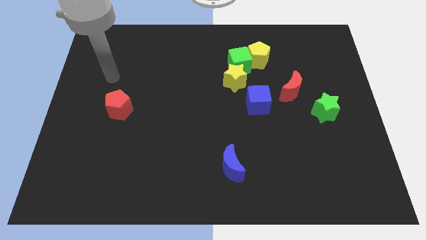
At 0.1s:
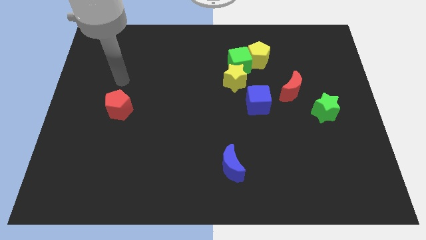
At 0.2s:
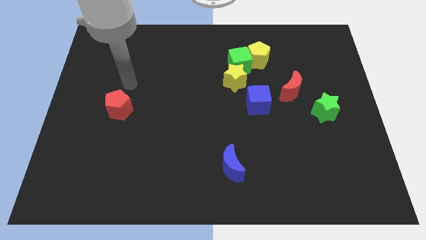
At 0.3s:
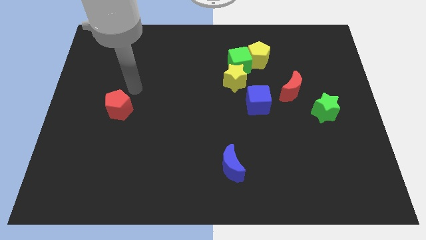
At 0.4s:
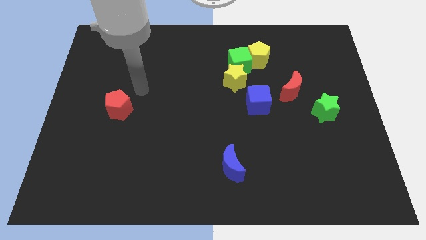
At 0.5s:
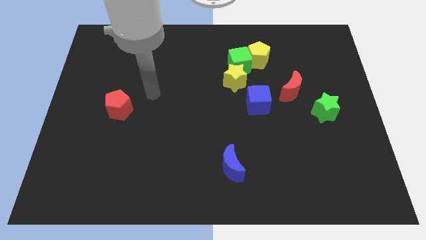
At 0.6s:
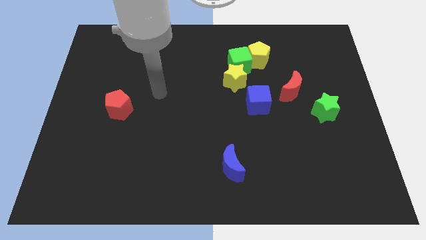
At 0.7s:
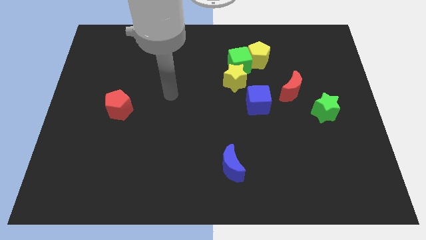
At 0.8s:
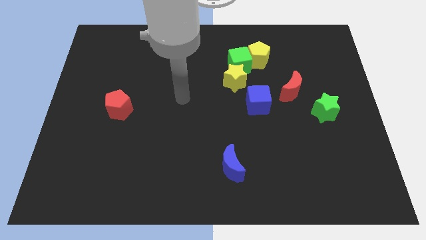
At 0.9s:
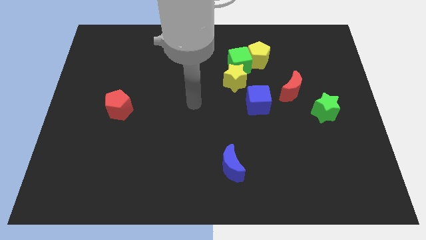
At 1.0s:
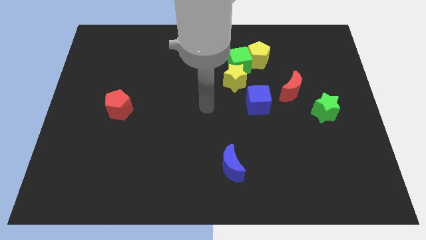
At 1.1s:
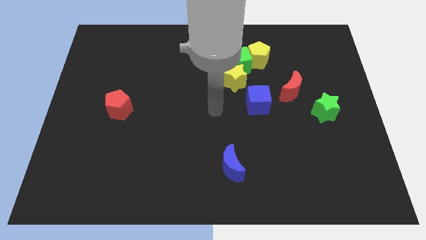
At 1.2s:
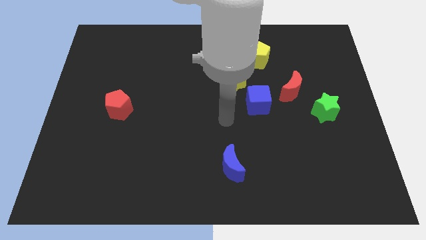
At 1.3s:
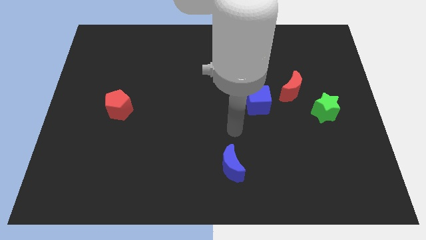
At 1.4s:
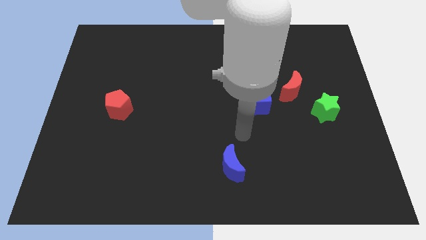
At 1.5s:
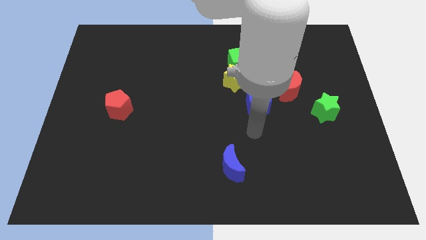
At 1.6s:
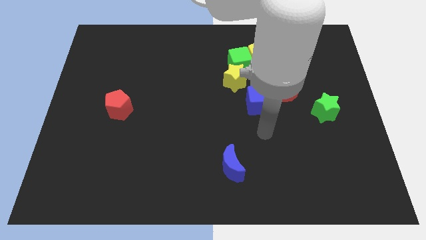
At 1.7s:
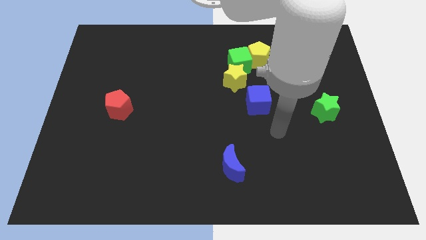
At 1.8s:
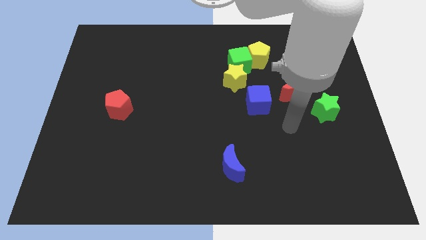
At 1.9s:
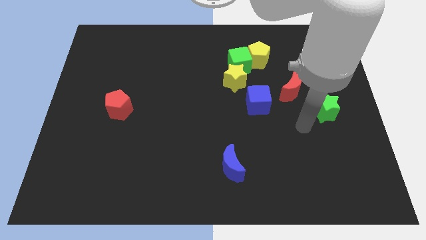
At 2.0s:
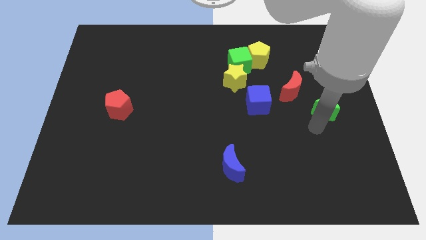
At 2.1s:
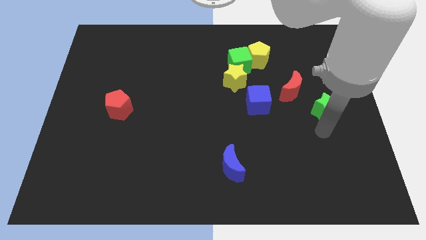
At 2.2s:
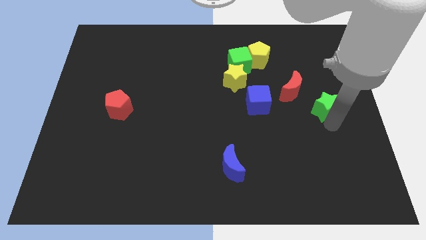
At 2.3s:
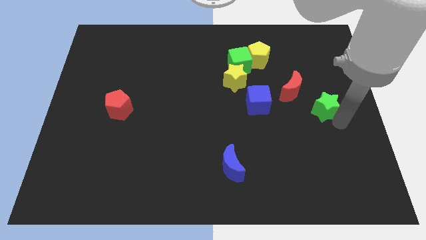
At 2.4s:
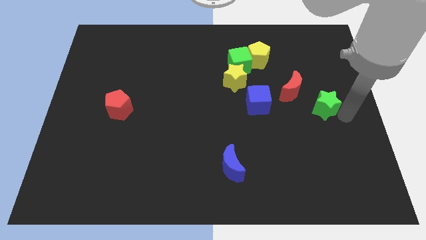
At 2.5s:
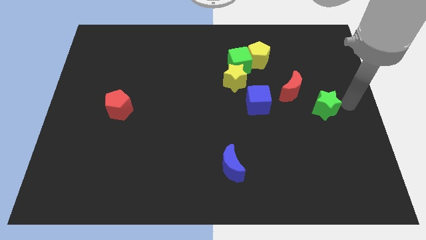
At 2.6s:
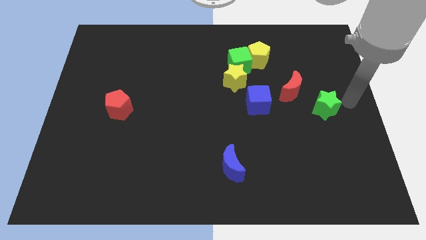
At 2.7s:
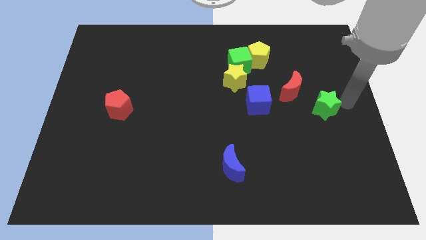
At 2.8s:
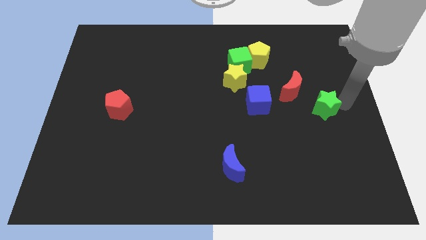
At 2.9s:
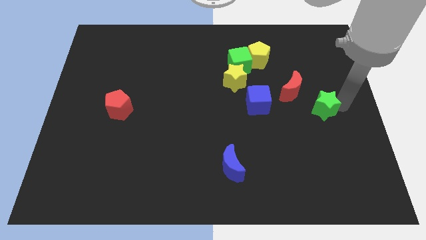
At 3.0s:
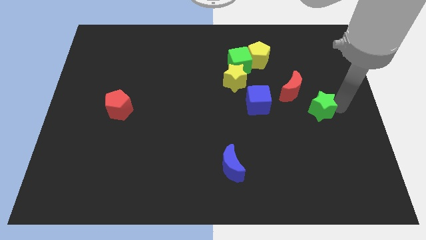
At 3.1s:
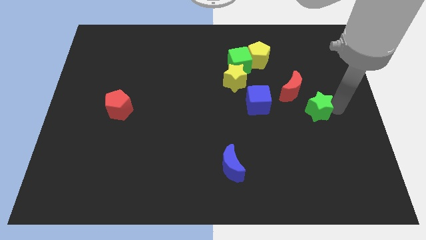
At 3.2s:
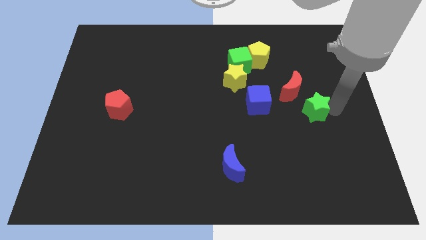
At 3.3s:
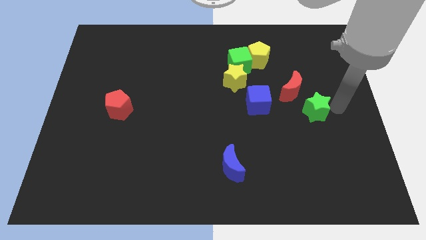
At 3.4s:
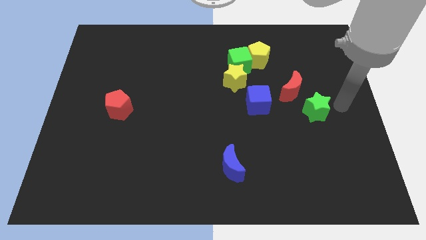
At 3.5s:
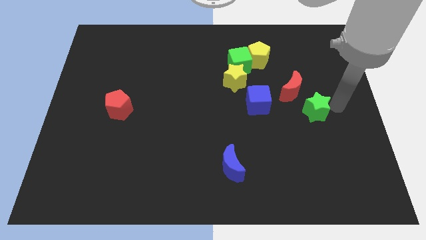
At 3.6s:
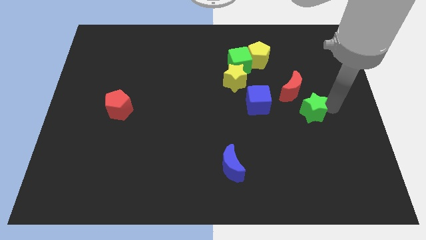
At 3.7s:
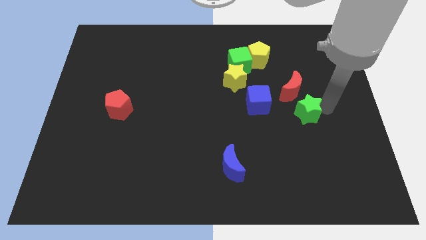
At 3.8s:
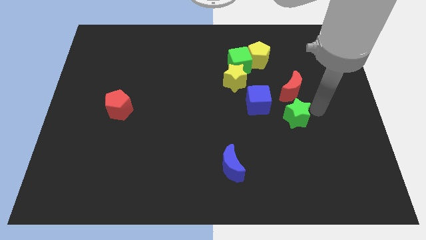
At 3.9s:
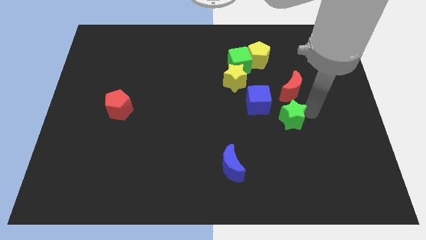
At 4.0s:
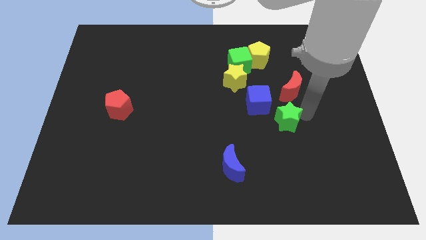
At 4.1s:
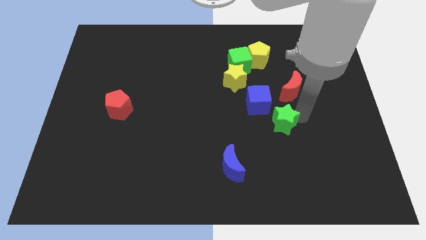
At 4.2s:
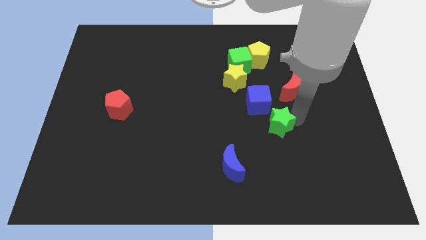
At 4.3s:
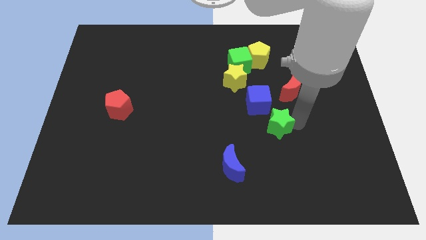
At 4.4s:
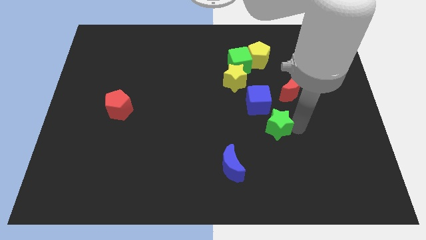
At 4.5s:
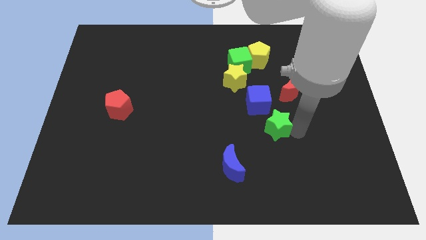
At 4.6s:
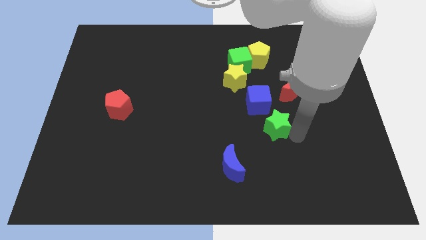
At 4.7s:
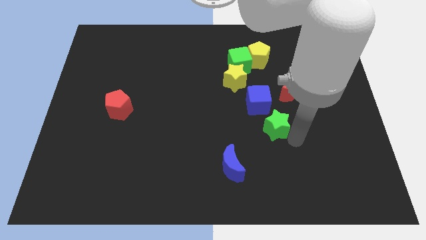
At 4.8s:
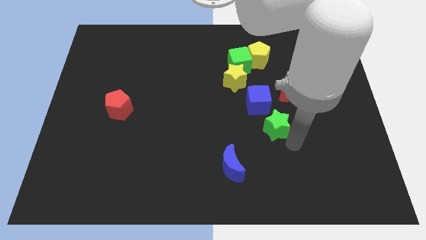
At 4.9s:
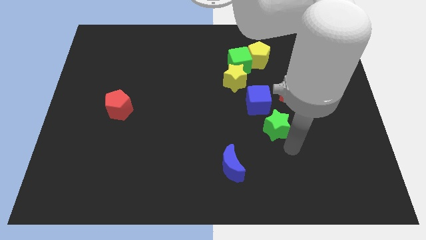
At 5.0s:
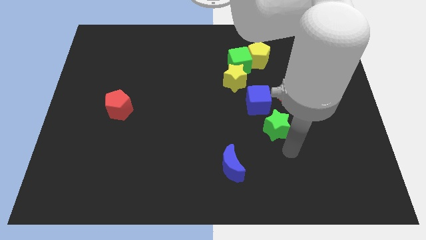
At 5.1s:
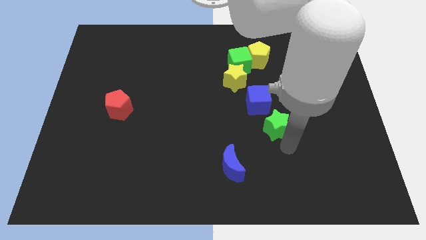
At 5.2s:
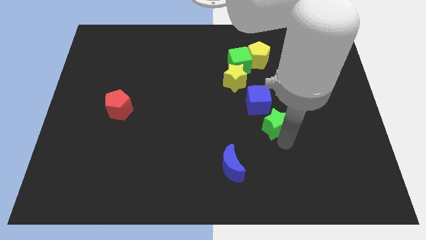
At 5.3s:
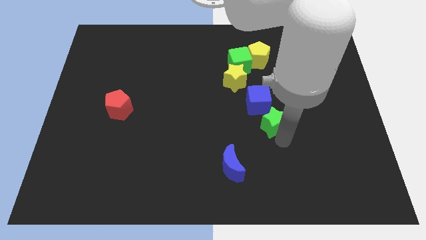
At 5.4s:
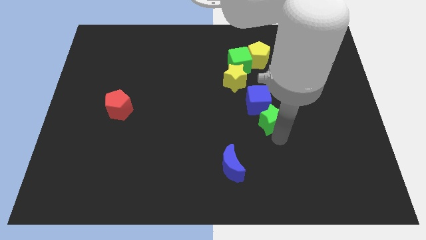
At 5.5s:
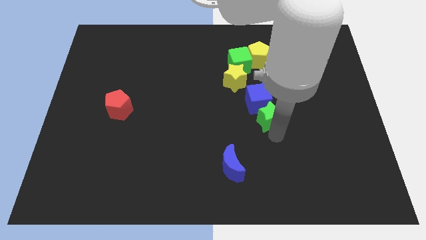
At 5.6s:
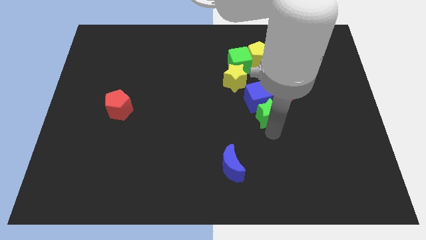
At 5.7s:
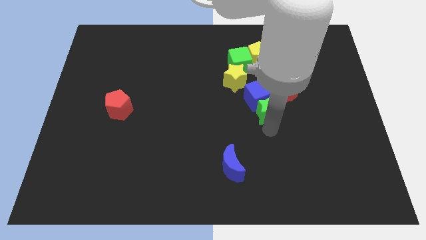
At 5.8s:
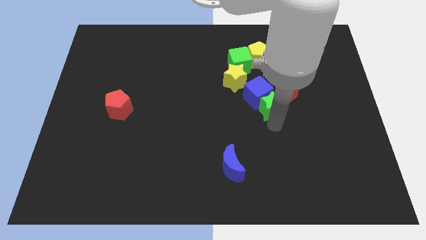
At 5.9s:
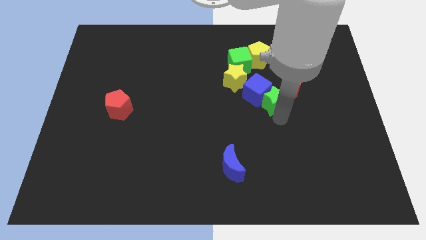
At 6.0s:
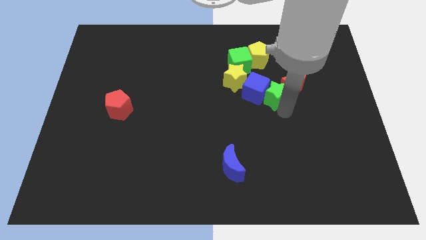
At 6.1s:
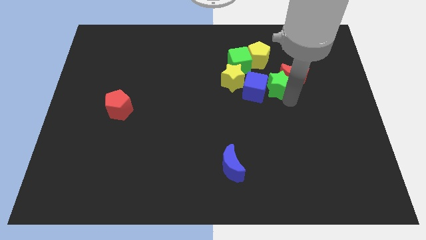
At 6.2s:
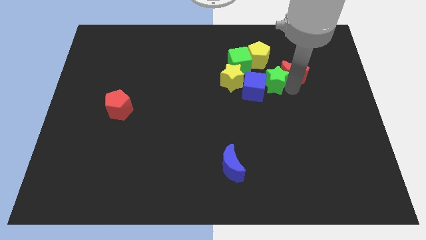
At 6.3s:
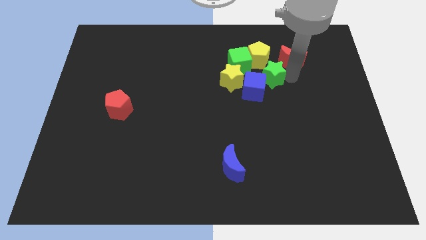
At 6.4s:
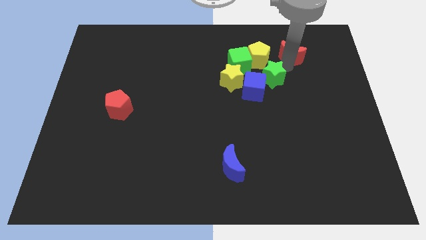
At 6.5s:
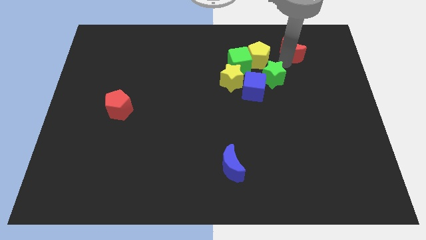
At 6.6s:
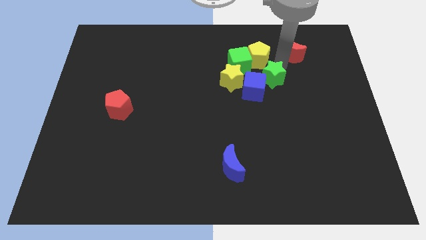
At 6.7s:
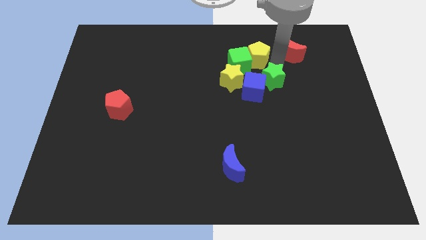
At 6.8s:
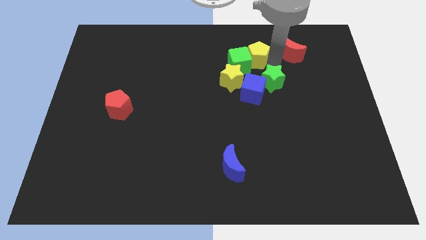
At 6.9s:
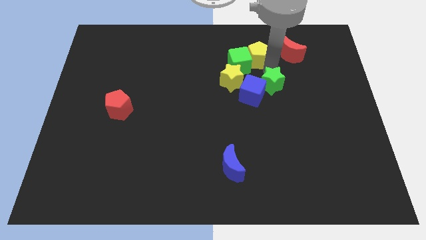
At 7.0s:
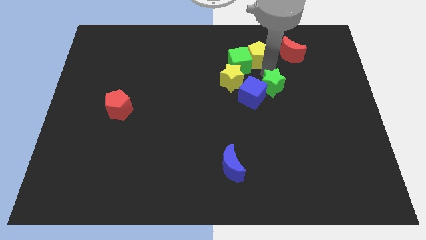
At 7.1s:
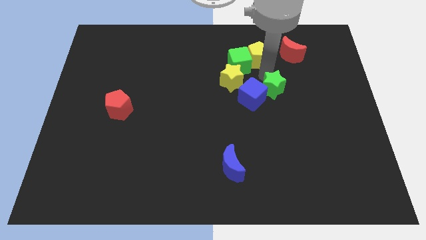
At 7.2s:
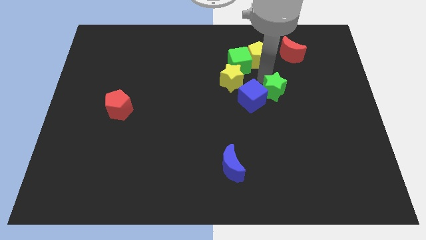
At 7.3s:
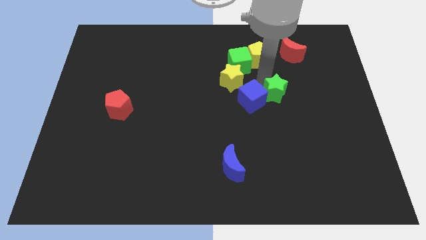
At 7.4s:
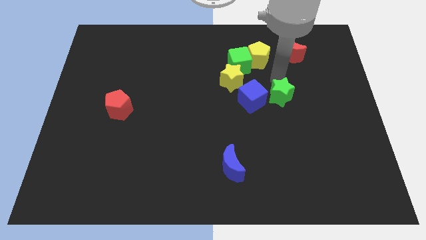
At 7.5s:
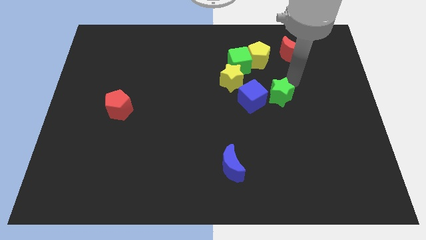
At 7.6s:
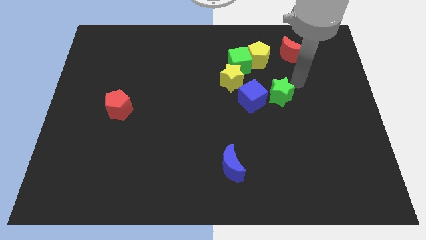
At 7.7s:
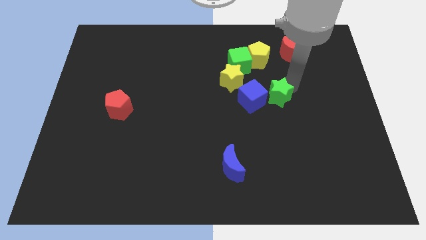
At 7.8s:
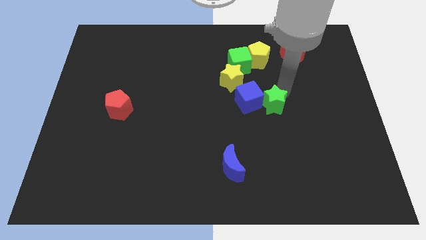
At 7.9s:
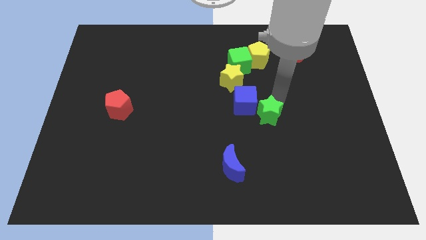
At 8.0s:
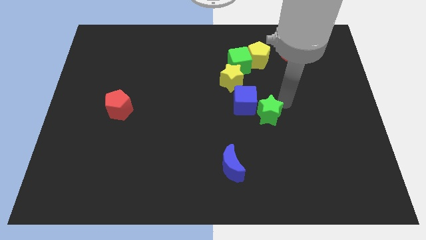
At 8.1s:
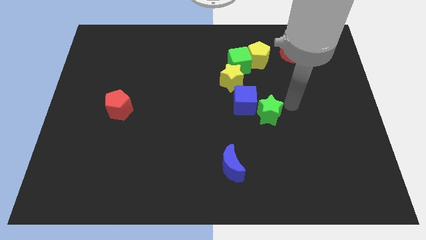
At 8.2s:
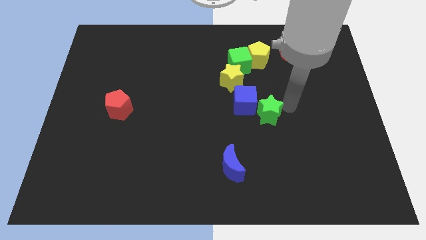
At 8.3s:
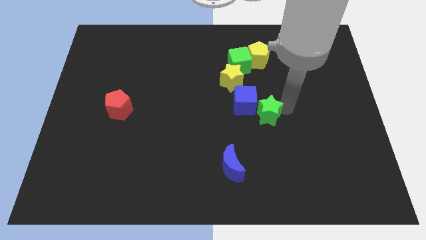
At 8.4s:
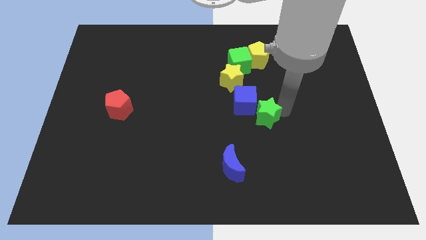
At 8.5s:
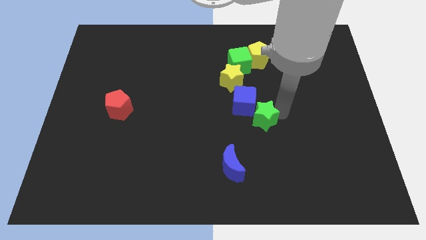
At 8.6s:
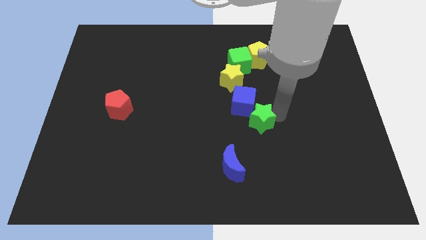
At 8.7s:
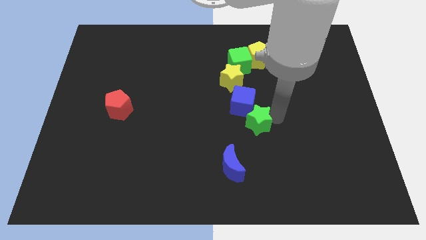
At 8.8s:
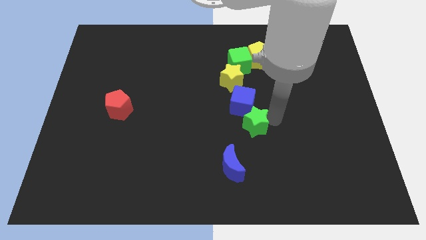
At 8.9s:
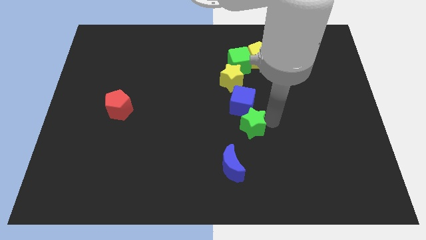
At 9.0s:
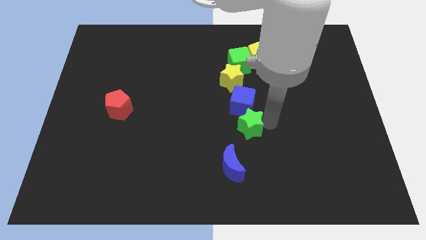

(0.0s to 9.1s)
put the green star above the blue moon
